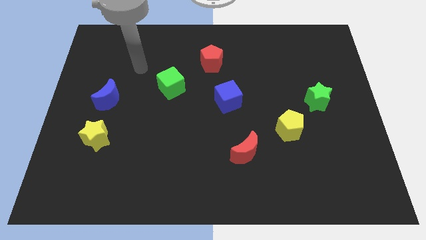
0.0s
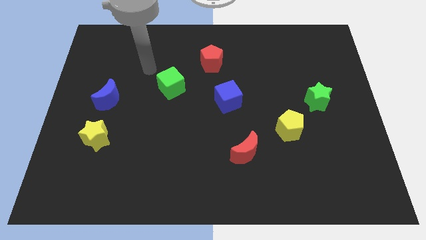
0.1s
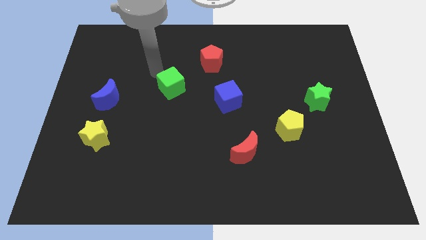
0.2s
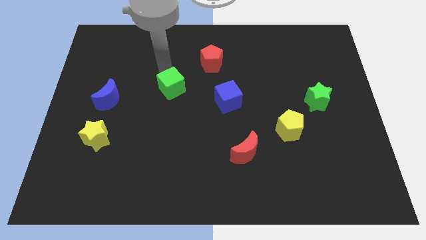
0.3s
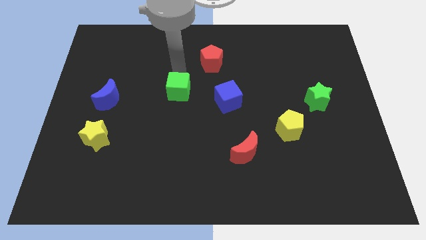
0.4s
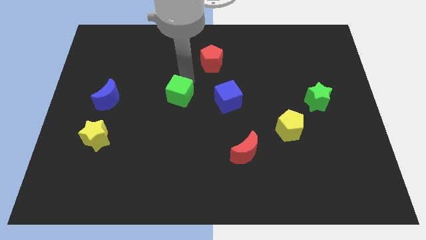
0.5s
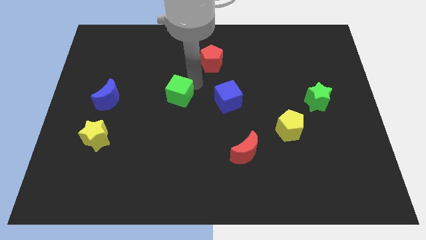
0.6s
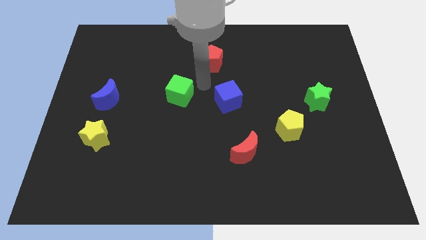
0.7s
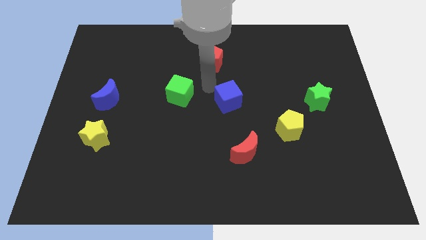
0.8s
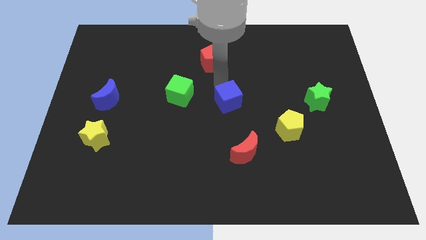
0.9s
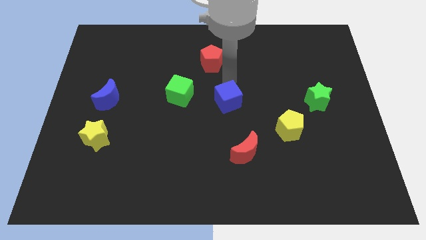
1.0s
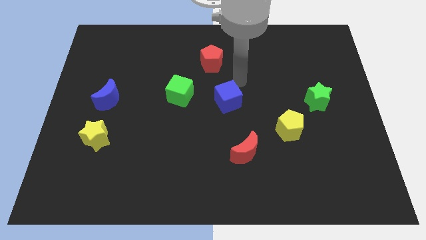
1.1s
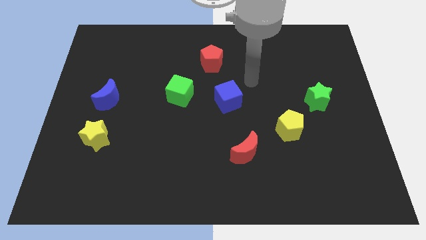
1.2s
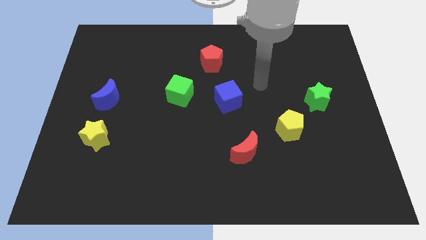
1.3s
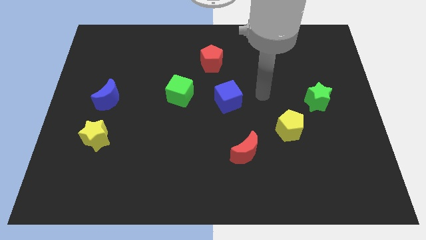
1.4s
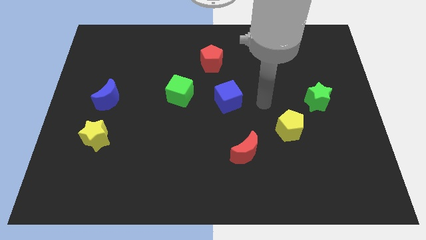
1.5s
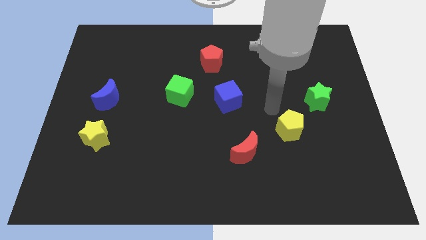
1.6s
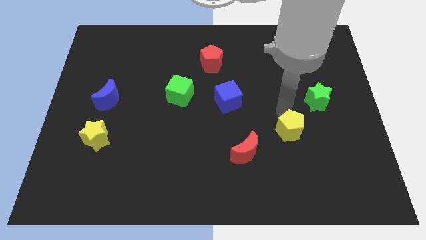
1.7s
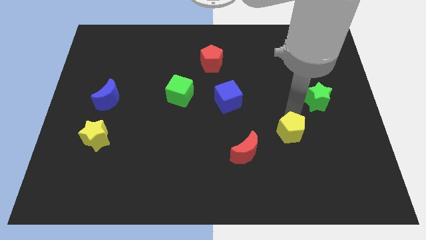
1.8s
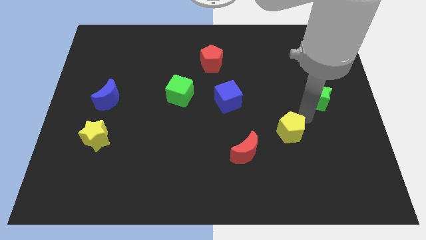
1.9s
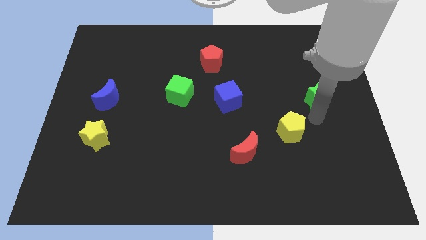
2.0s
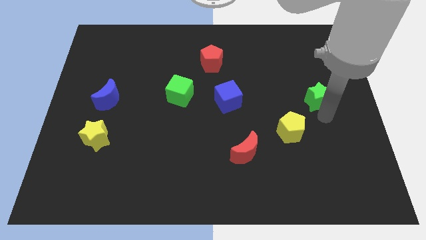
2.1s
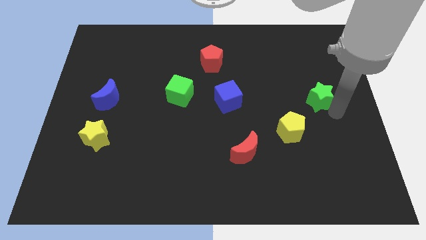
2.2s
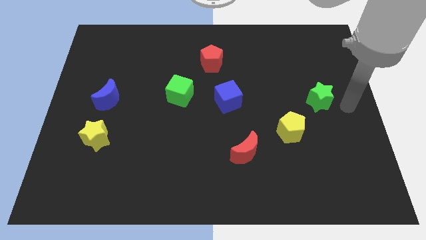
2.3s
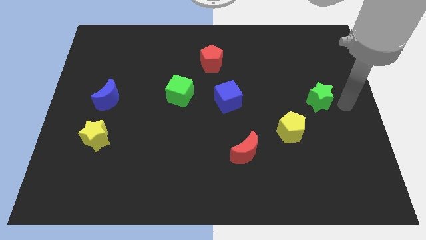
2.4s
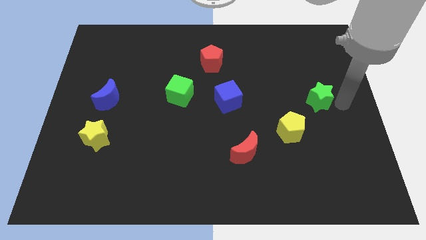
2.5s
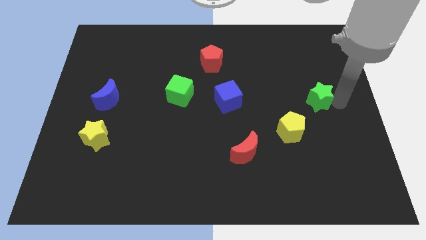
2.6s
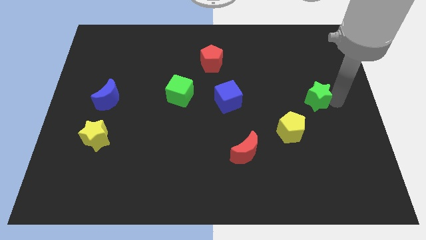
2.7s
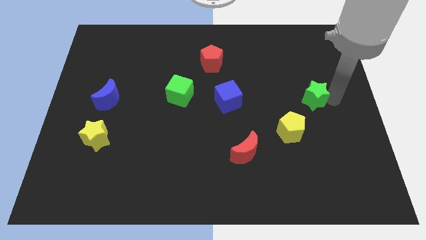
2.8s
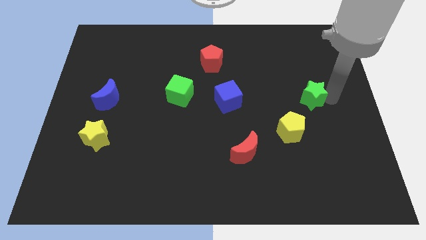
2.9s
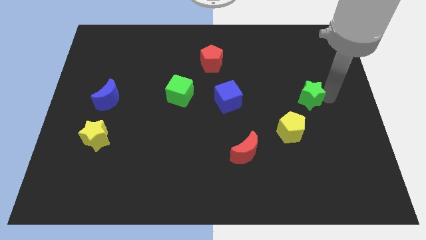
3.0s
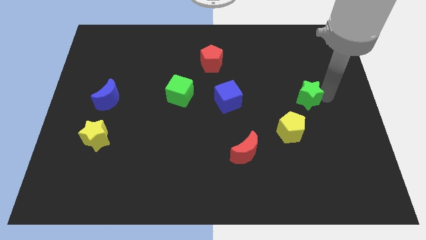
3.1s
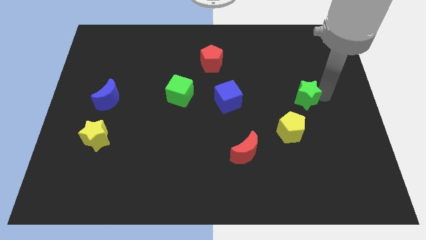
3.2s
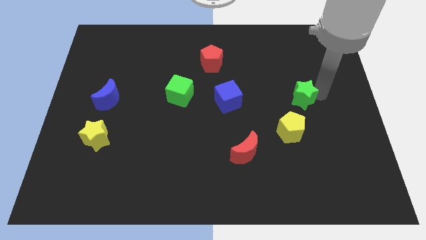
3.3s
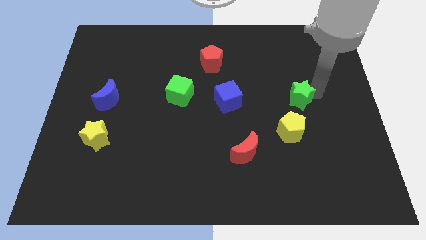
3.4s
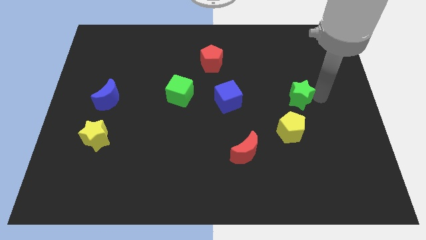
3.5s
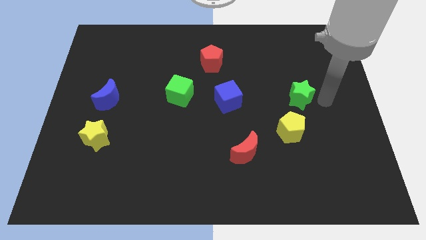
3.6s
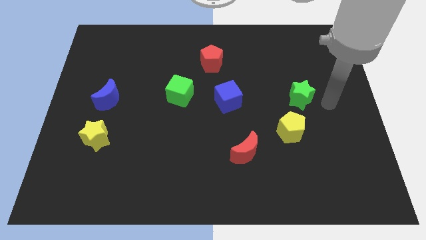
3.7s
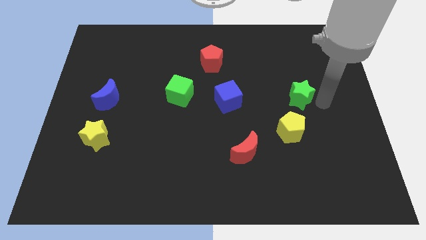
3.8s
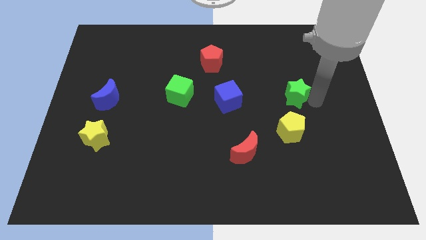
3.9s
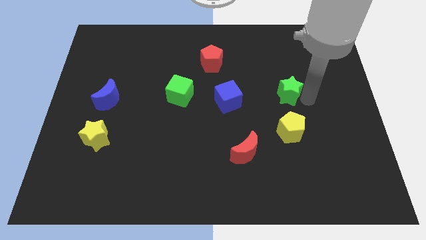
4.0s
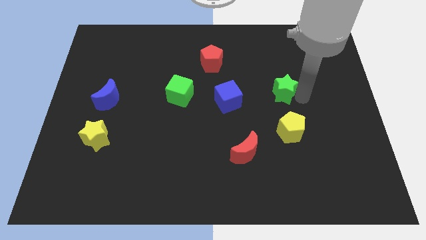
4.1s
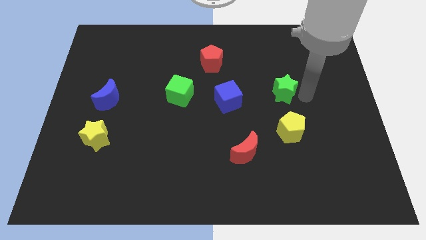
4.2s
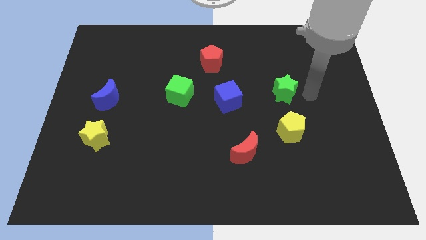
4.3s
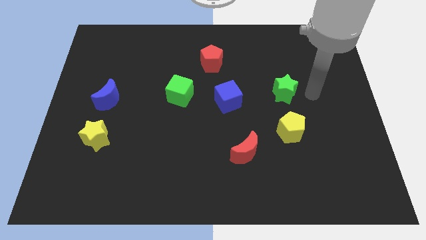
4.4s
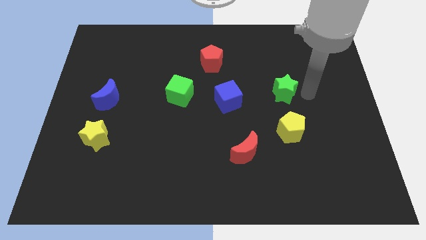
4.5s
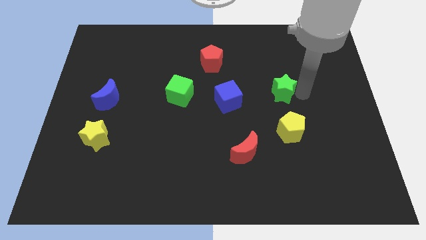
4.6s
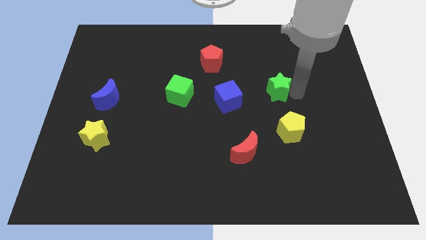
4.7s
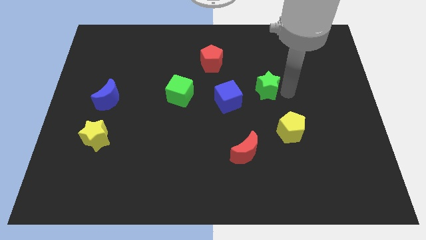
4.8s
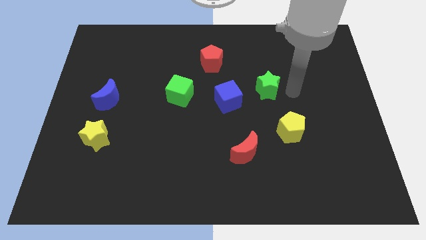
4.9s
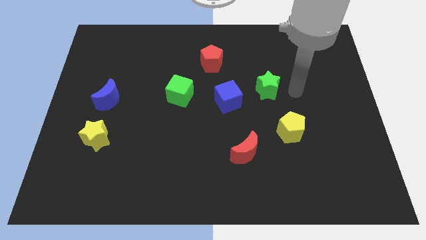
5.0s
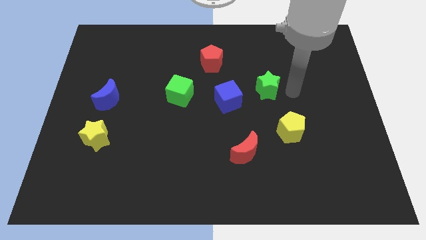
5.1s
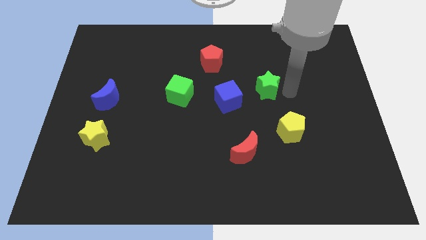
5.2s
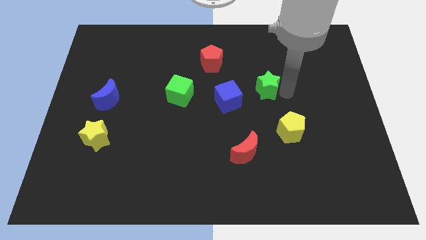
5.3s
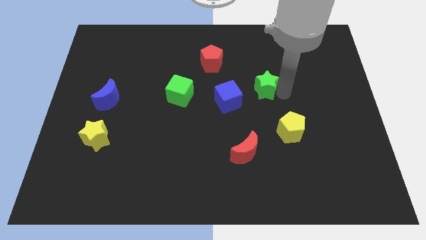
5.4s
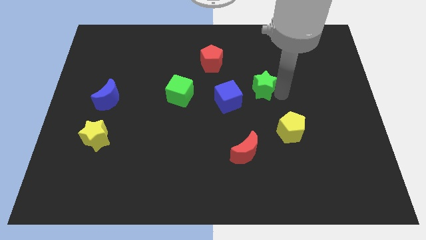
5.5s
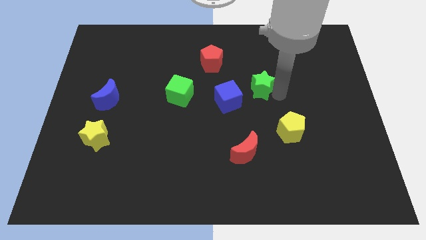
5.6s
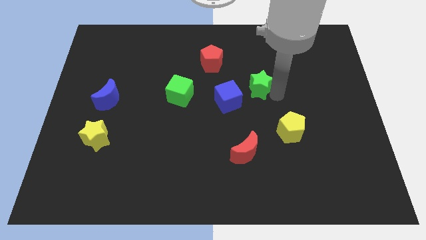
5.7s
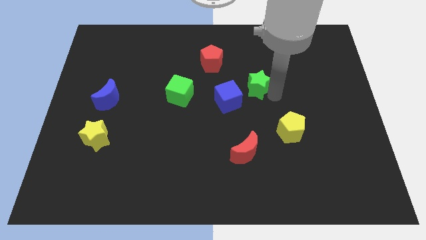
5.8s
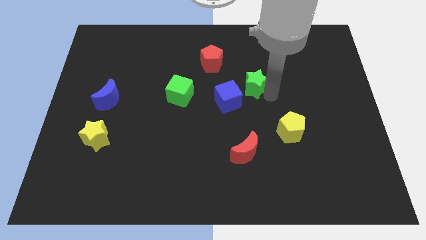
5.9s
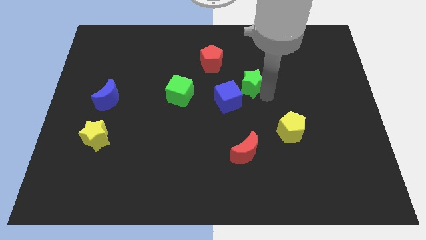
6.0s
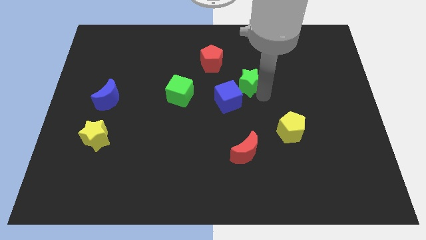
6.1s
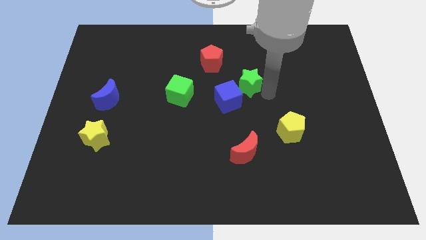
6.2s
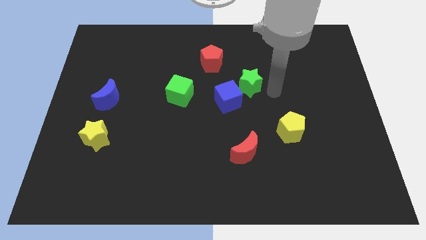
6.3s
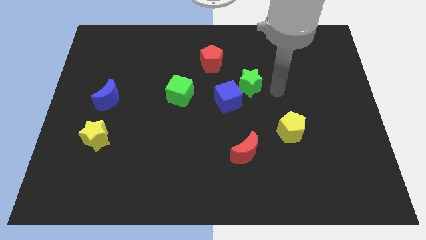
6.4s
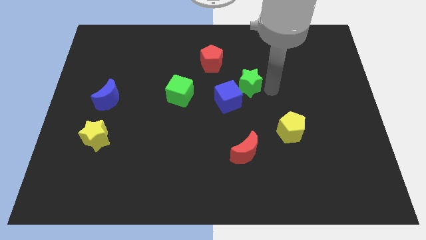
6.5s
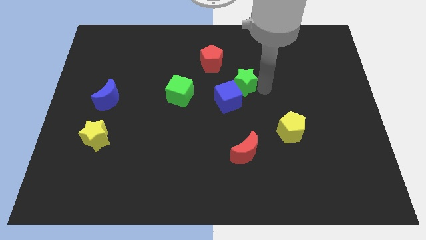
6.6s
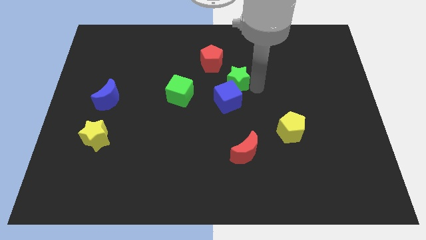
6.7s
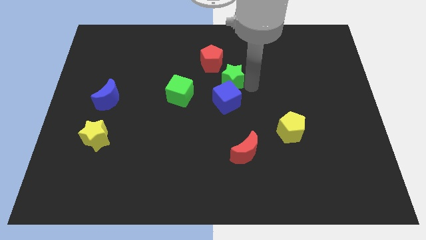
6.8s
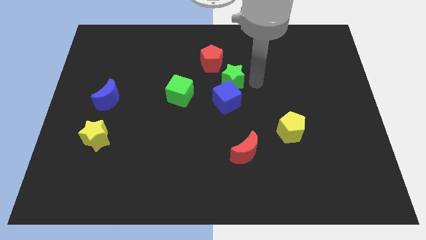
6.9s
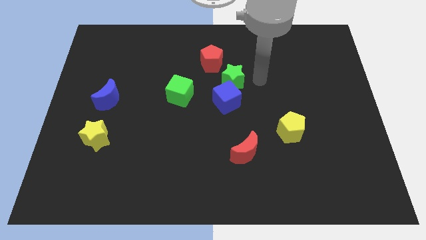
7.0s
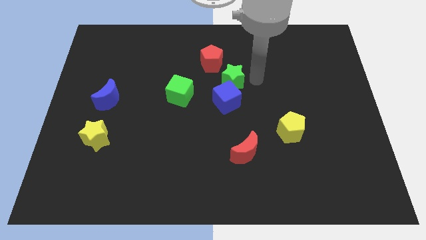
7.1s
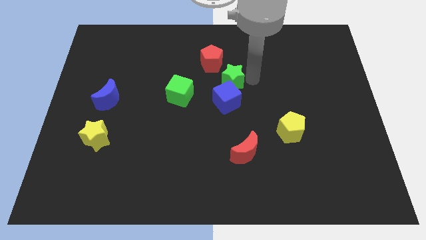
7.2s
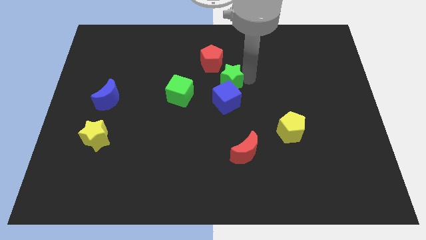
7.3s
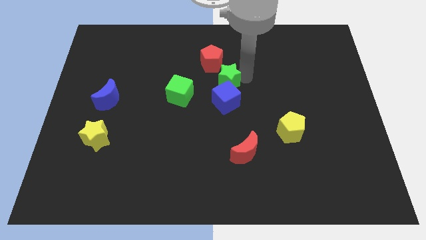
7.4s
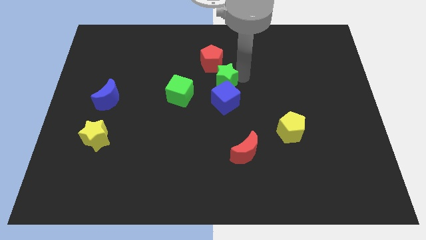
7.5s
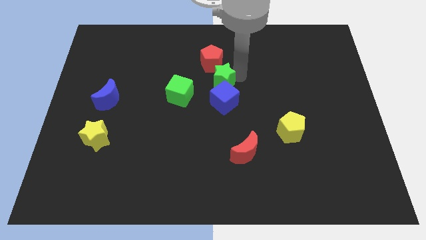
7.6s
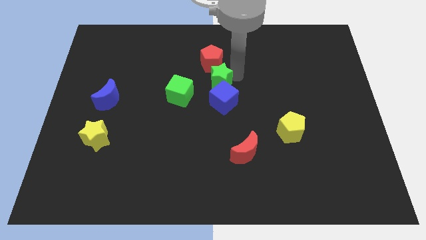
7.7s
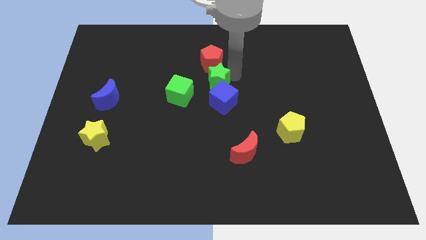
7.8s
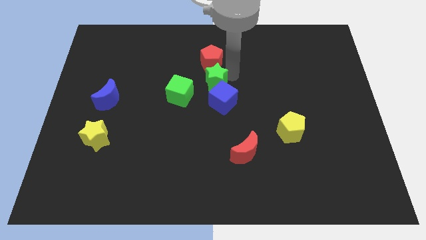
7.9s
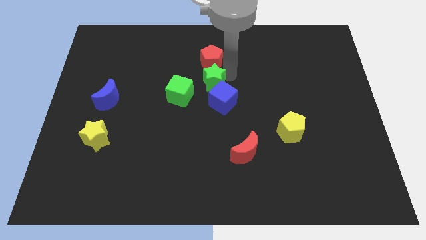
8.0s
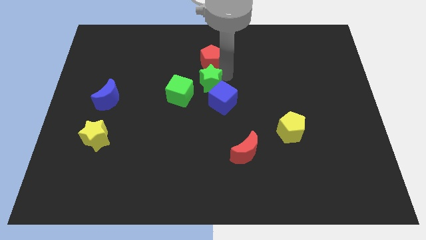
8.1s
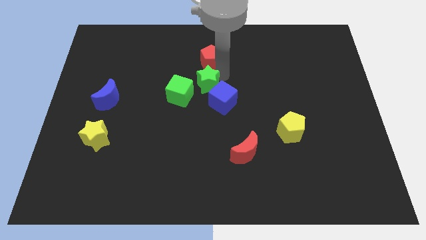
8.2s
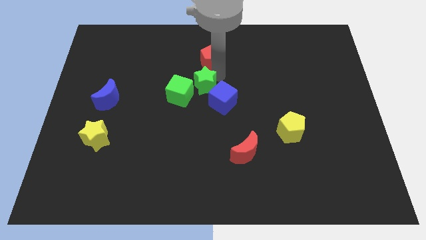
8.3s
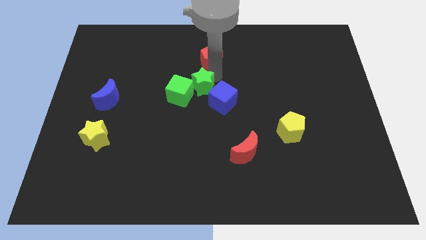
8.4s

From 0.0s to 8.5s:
move the green star to the green cube
